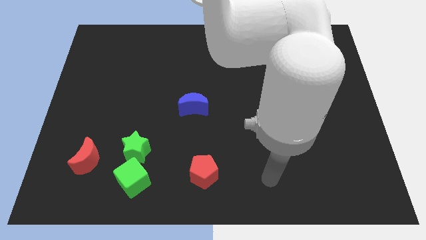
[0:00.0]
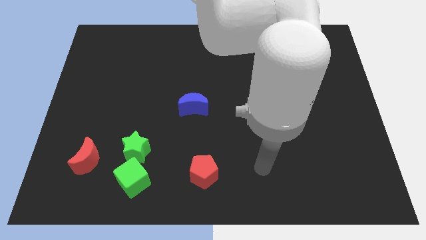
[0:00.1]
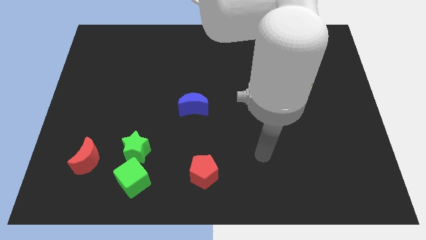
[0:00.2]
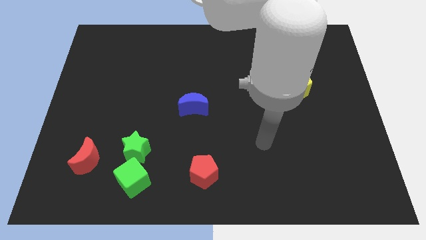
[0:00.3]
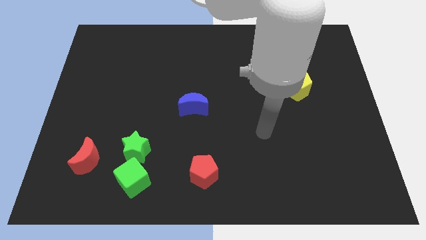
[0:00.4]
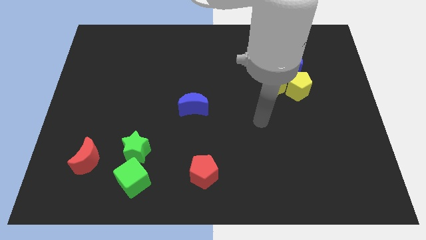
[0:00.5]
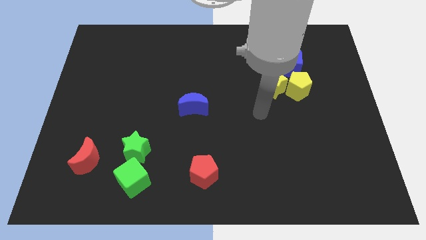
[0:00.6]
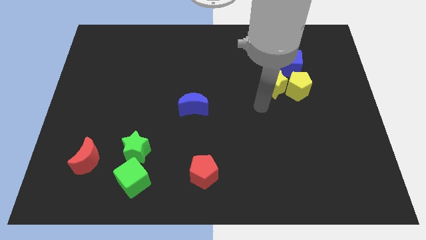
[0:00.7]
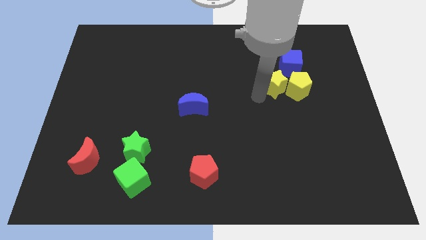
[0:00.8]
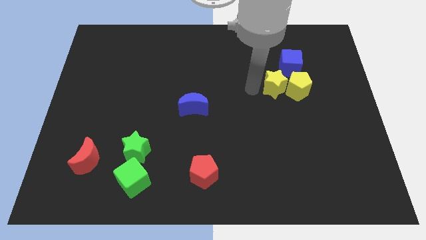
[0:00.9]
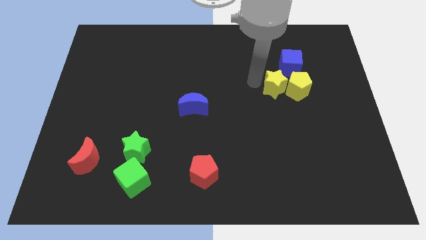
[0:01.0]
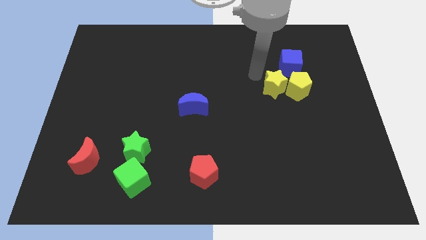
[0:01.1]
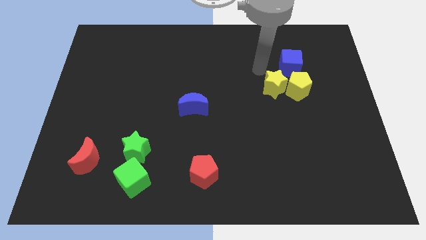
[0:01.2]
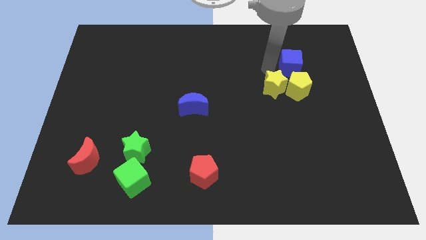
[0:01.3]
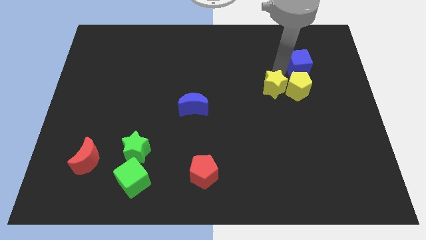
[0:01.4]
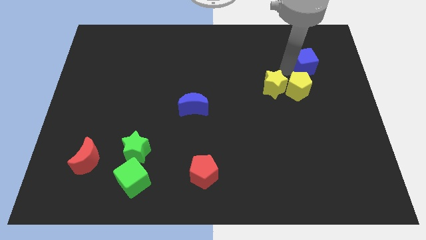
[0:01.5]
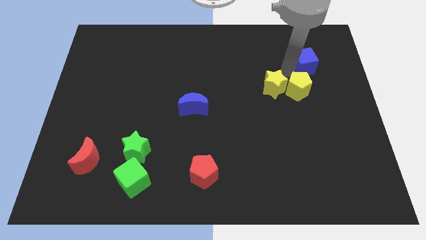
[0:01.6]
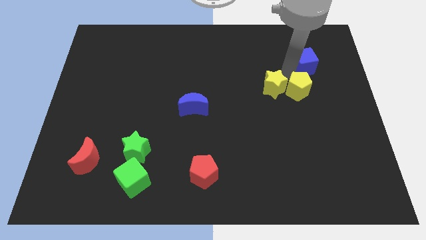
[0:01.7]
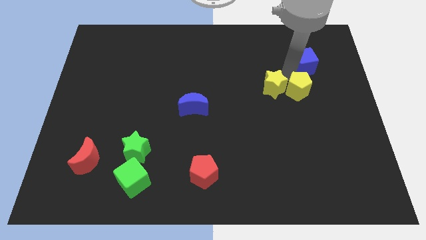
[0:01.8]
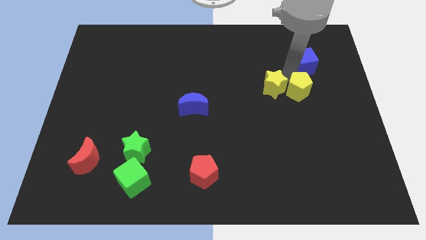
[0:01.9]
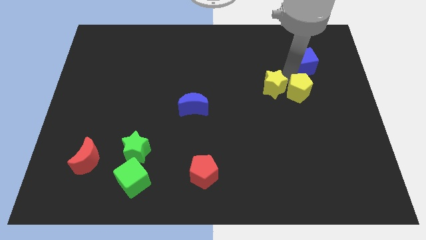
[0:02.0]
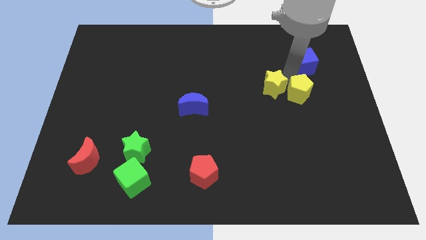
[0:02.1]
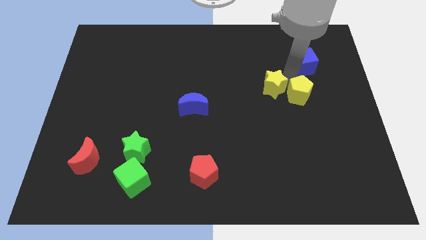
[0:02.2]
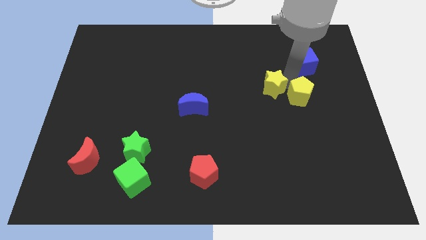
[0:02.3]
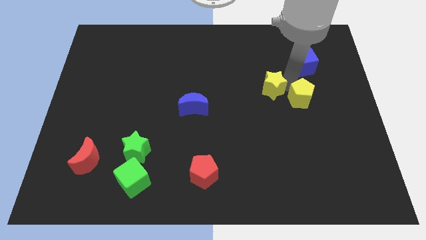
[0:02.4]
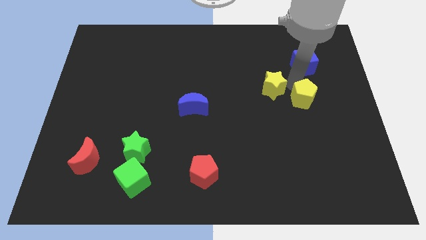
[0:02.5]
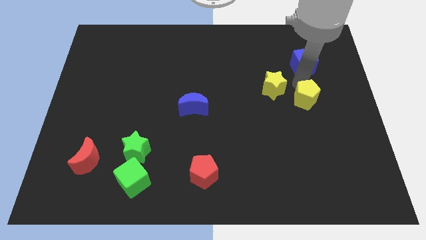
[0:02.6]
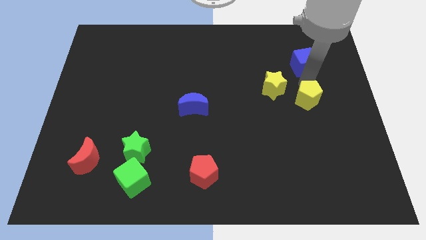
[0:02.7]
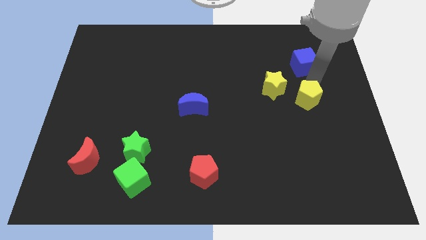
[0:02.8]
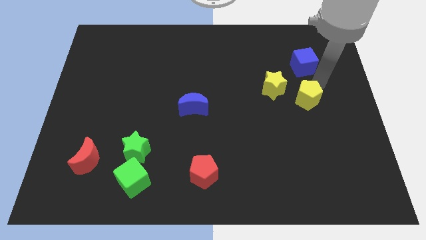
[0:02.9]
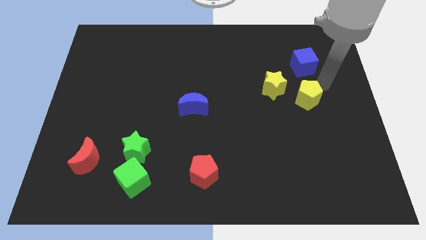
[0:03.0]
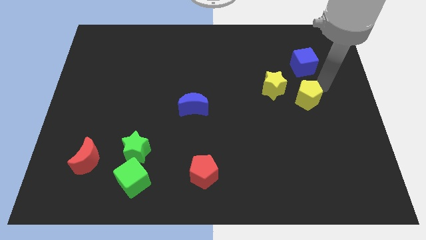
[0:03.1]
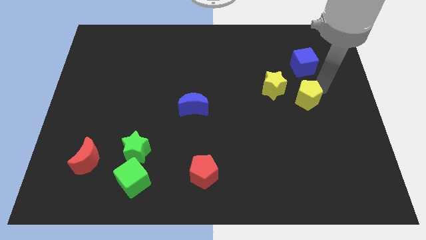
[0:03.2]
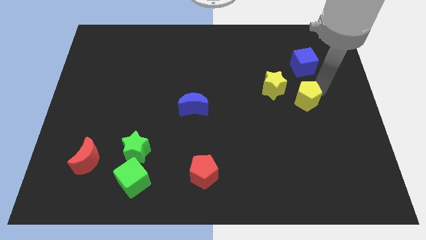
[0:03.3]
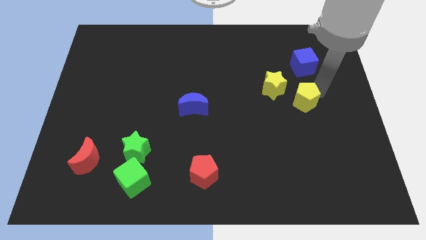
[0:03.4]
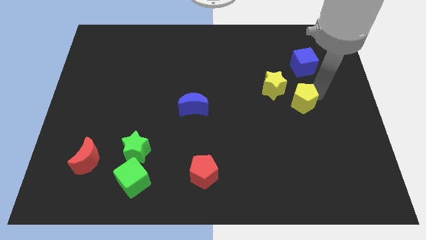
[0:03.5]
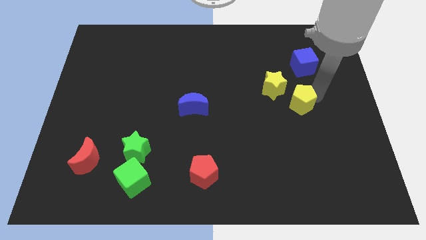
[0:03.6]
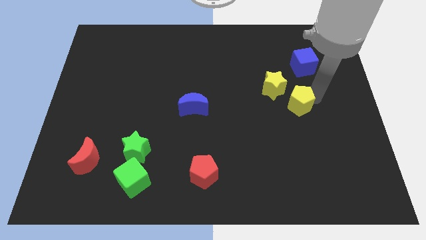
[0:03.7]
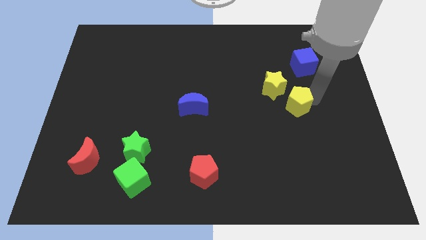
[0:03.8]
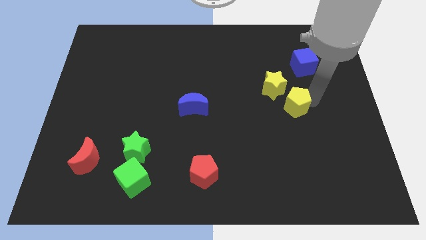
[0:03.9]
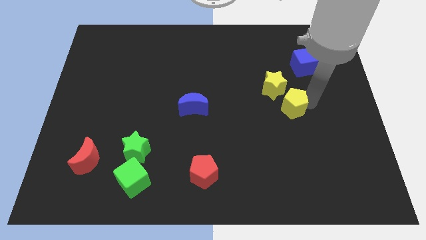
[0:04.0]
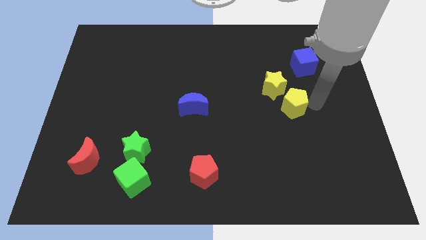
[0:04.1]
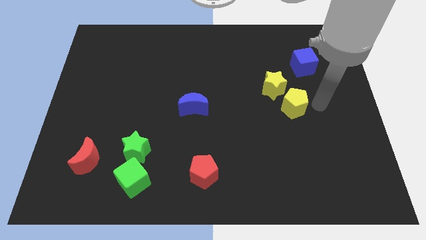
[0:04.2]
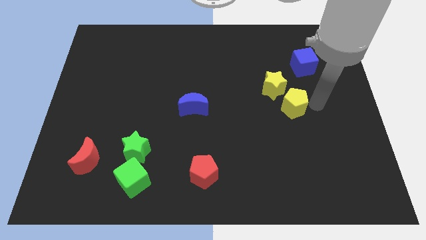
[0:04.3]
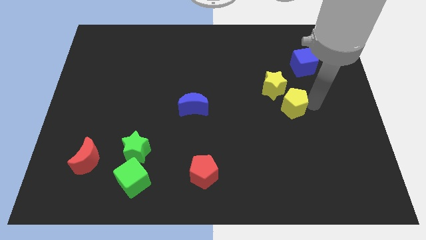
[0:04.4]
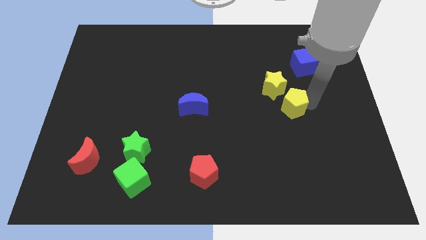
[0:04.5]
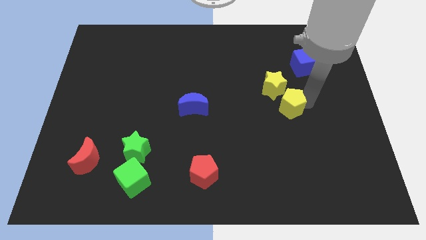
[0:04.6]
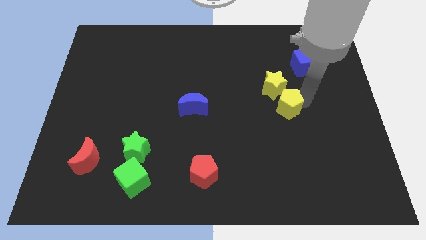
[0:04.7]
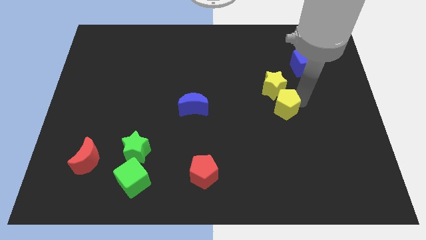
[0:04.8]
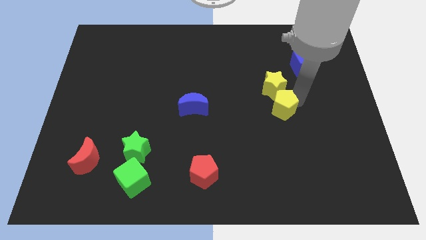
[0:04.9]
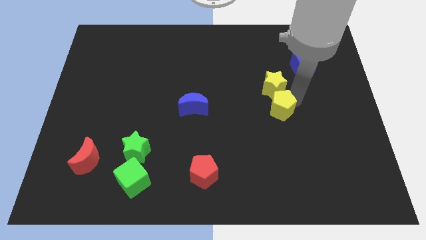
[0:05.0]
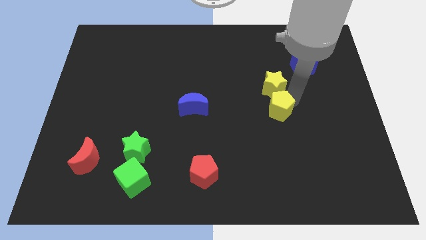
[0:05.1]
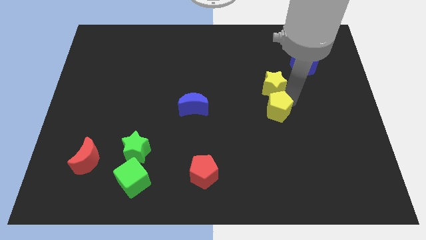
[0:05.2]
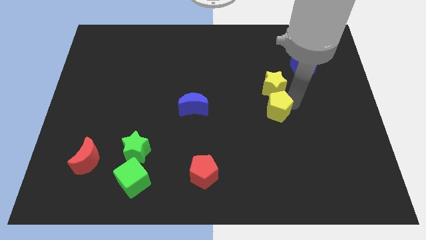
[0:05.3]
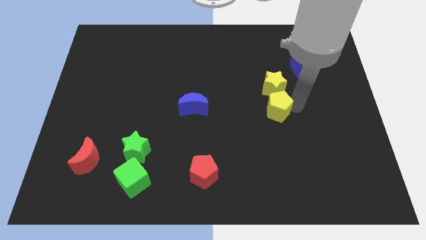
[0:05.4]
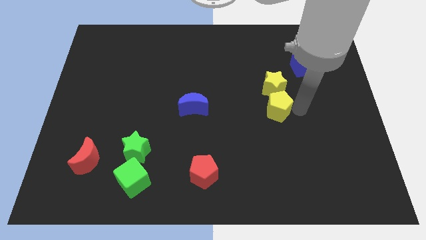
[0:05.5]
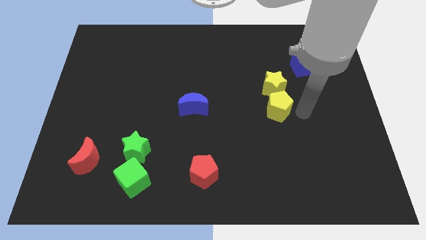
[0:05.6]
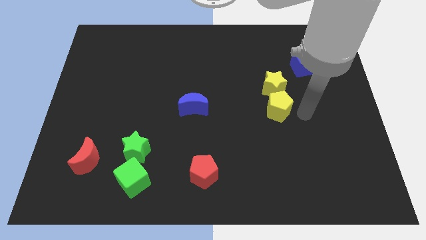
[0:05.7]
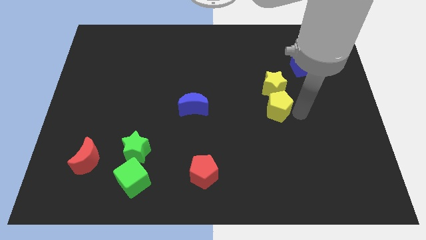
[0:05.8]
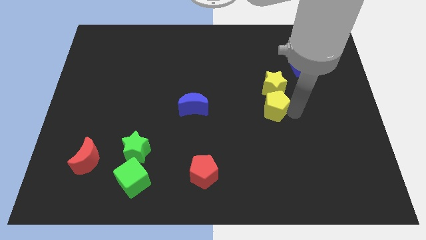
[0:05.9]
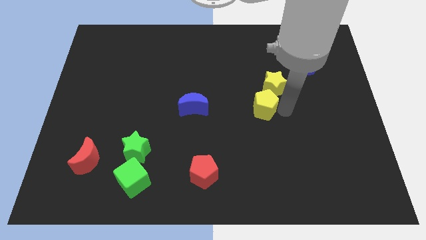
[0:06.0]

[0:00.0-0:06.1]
slide the yellow pentagon to the center of the board

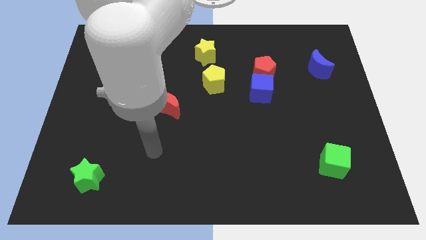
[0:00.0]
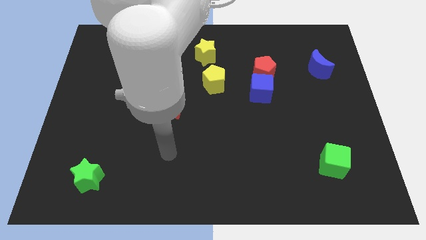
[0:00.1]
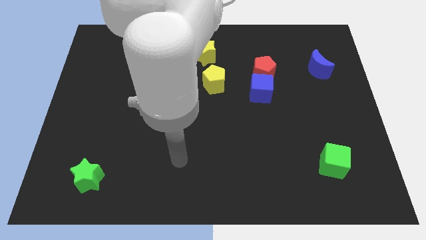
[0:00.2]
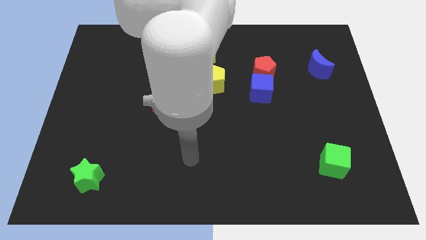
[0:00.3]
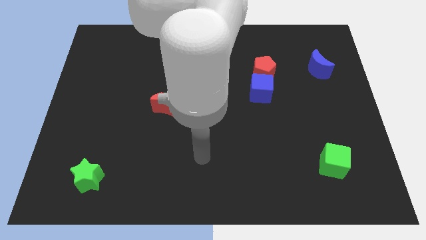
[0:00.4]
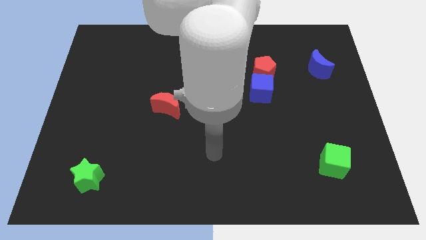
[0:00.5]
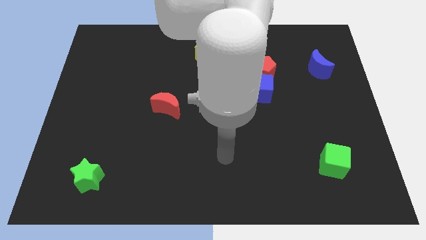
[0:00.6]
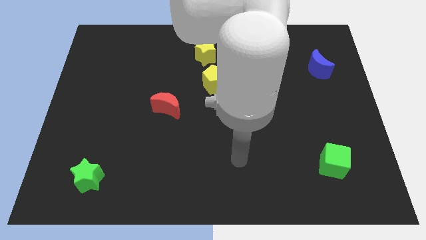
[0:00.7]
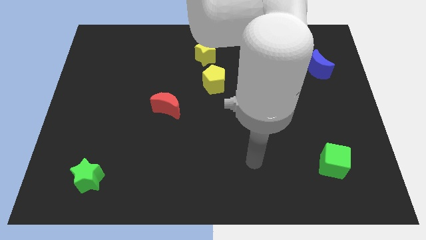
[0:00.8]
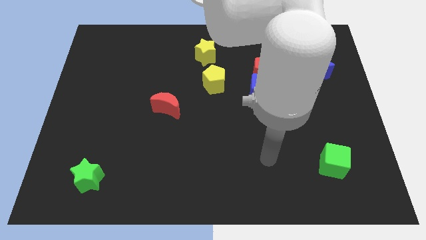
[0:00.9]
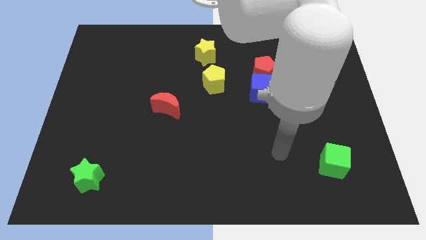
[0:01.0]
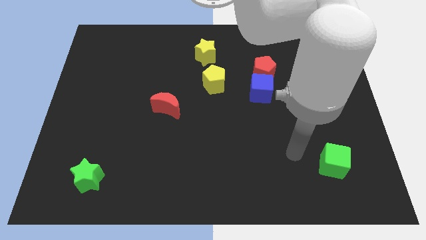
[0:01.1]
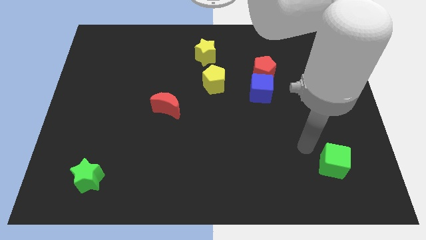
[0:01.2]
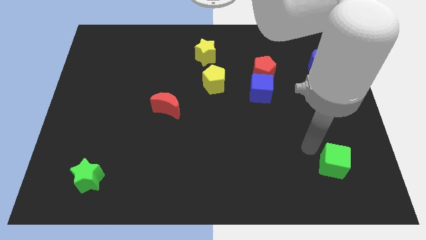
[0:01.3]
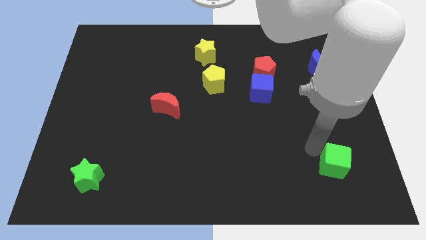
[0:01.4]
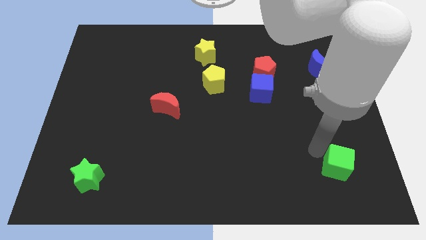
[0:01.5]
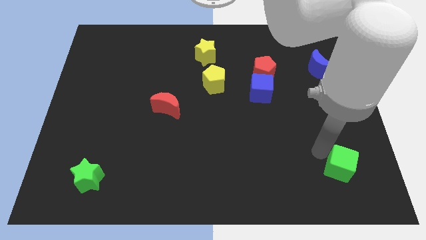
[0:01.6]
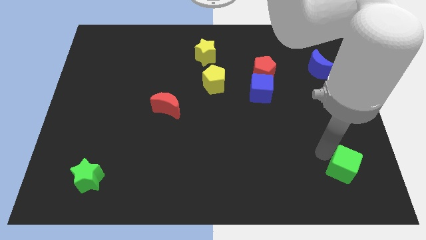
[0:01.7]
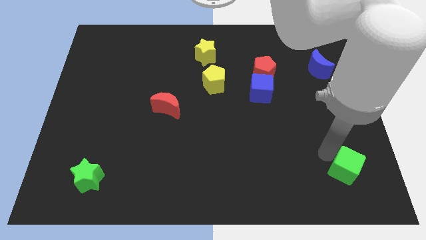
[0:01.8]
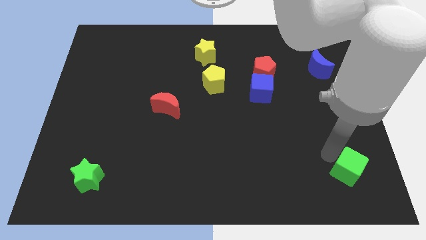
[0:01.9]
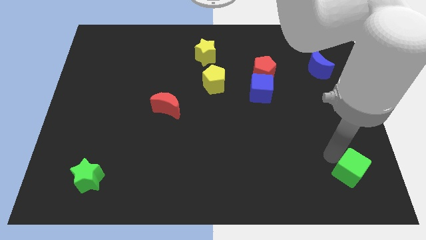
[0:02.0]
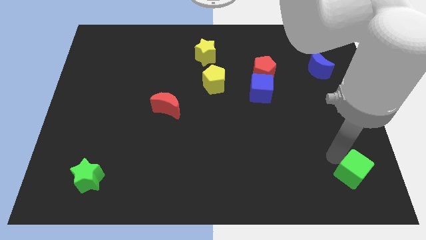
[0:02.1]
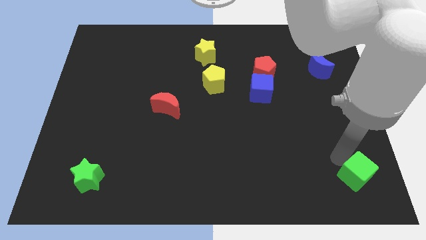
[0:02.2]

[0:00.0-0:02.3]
put the green cube to the bottom right
